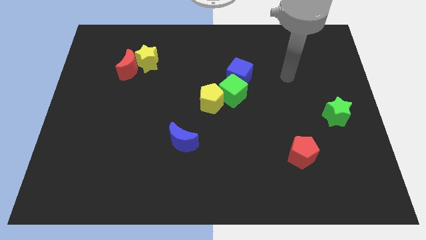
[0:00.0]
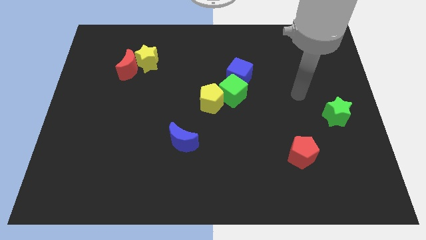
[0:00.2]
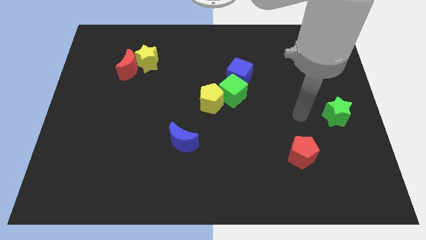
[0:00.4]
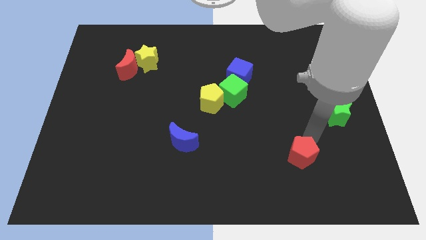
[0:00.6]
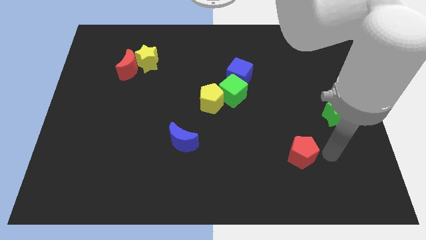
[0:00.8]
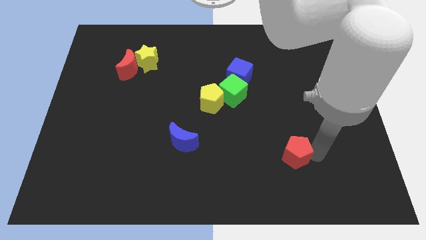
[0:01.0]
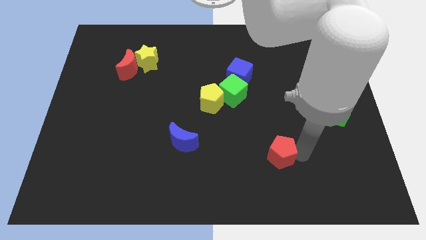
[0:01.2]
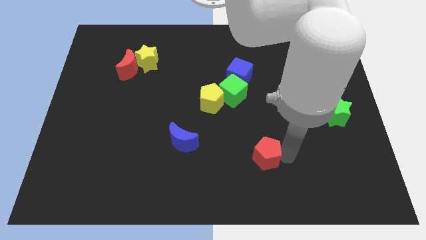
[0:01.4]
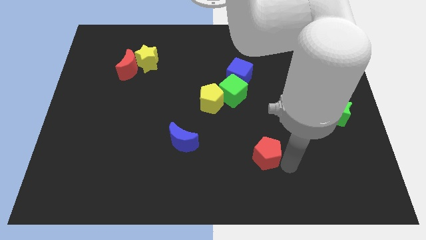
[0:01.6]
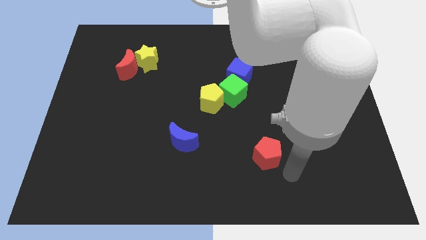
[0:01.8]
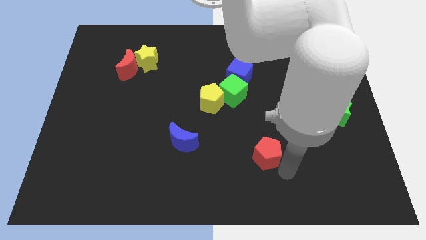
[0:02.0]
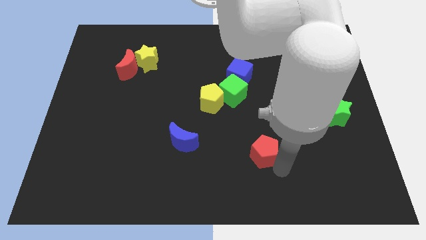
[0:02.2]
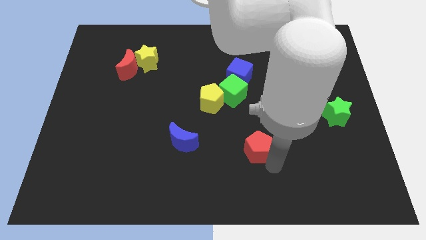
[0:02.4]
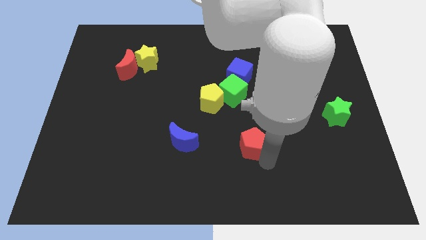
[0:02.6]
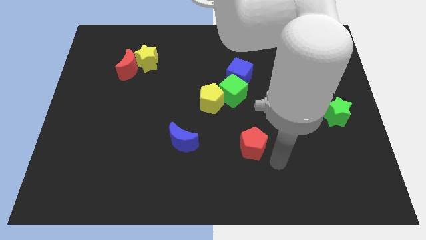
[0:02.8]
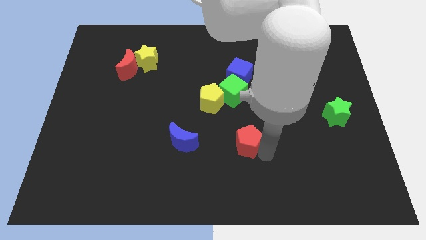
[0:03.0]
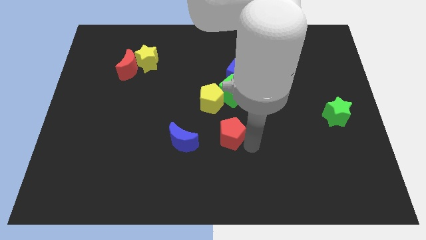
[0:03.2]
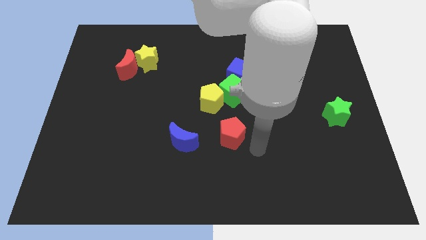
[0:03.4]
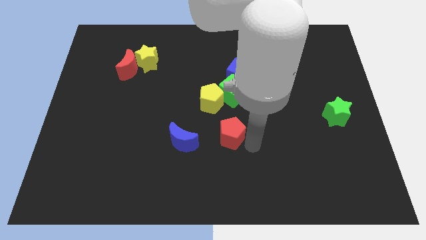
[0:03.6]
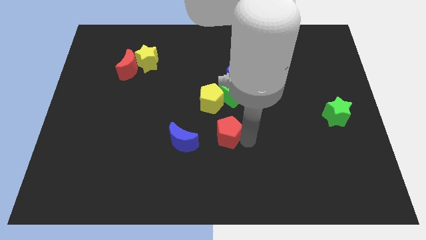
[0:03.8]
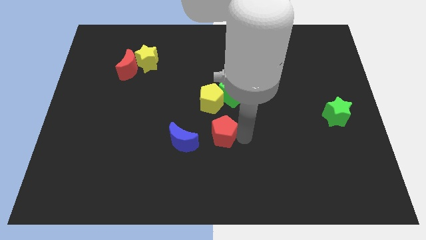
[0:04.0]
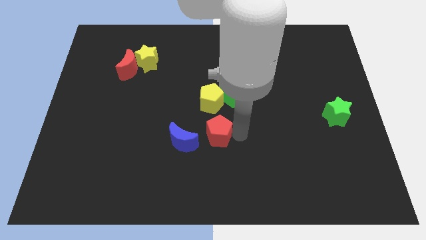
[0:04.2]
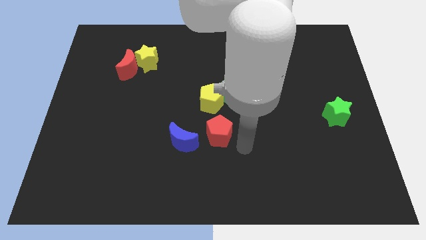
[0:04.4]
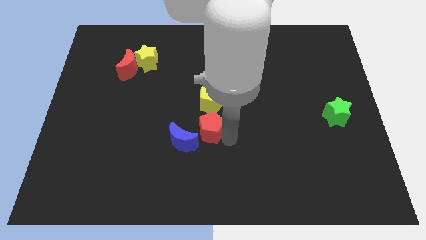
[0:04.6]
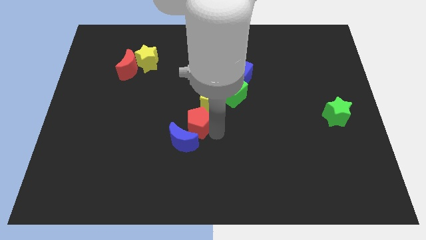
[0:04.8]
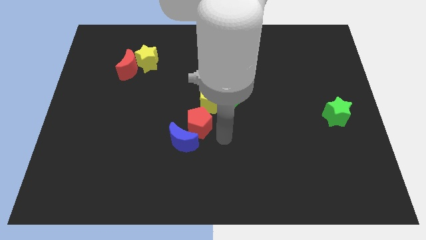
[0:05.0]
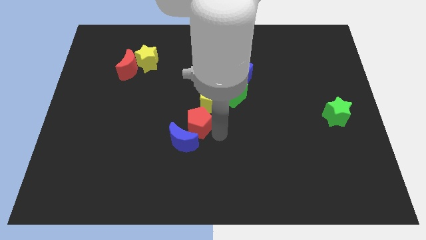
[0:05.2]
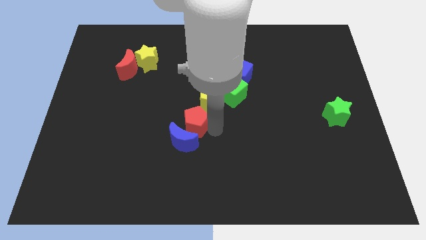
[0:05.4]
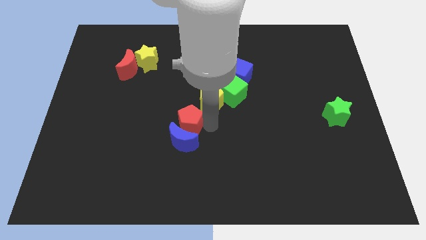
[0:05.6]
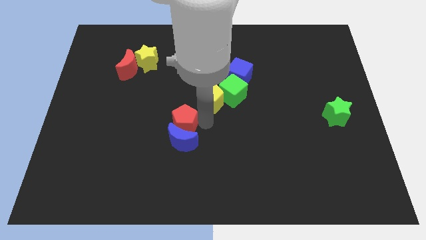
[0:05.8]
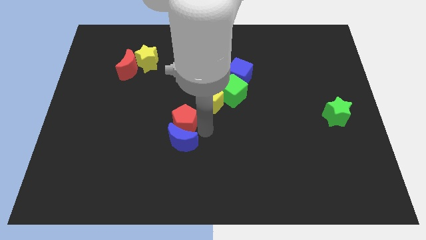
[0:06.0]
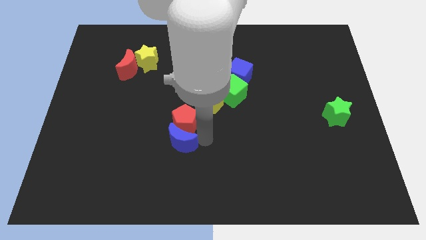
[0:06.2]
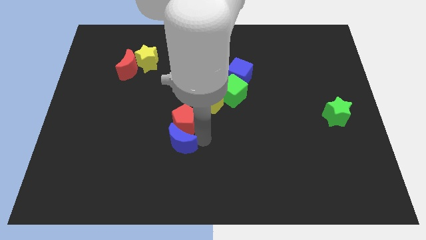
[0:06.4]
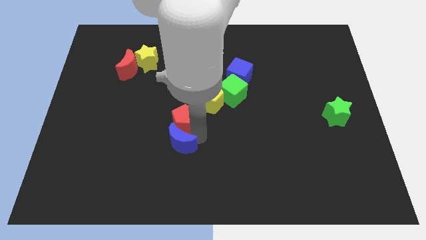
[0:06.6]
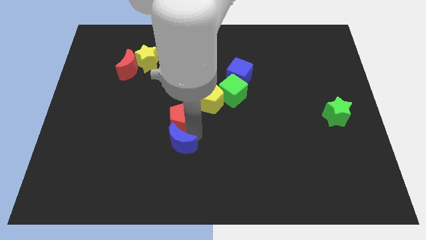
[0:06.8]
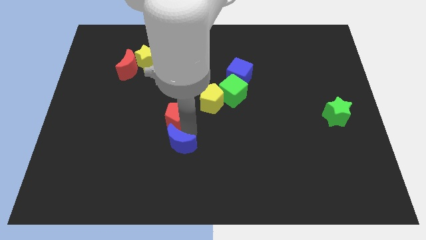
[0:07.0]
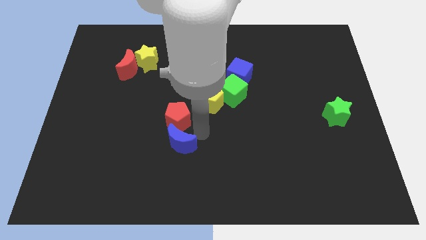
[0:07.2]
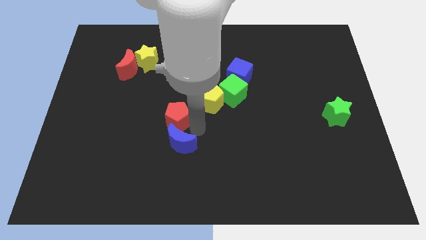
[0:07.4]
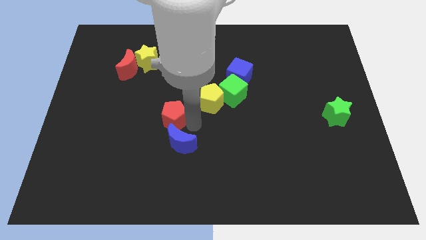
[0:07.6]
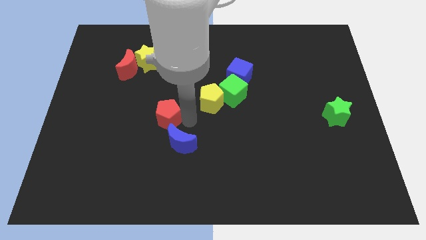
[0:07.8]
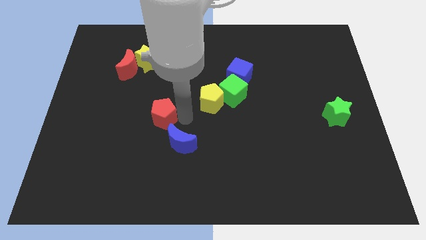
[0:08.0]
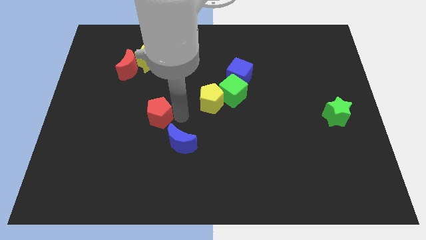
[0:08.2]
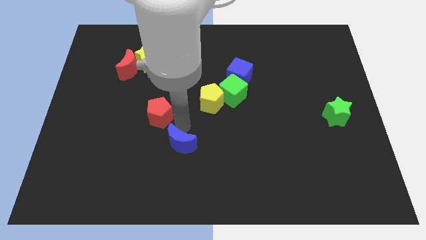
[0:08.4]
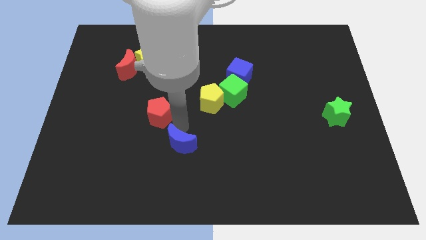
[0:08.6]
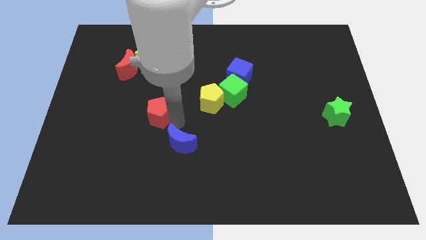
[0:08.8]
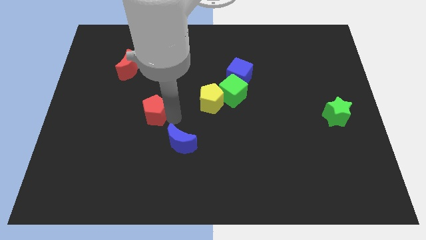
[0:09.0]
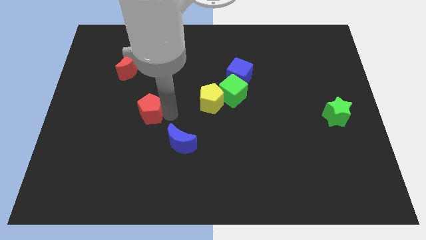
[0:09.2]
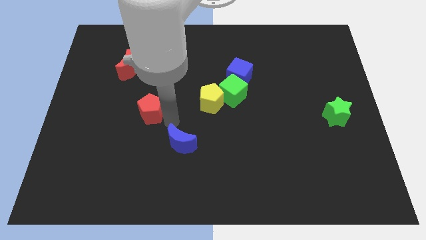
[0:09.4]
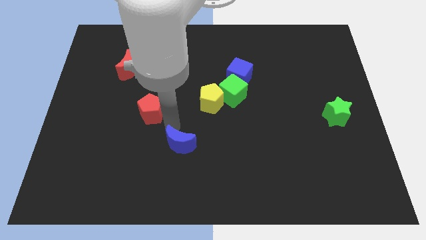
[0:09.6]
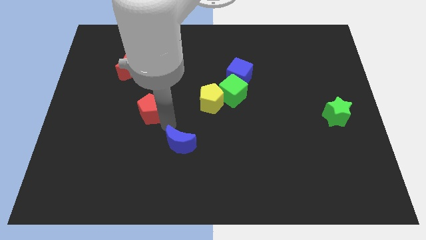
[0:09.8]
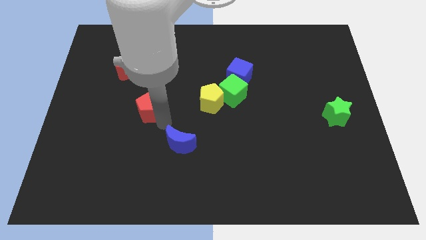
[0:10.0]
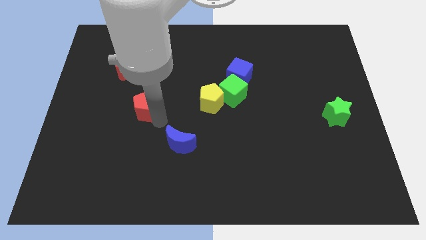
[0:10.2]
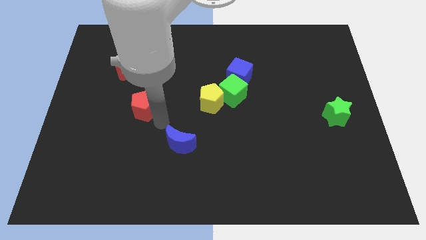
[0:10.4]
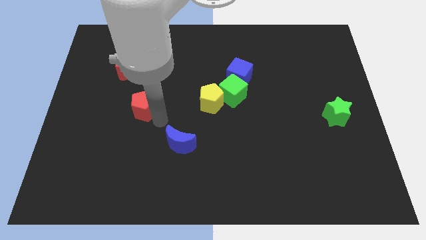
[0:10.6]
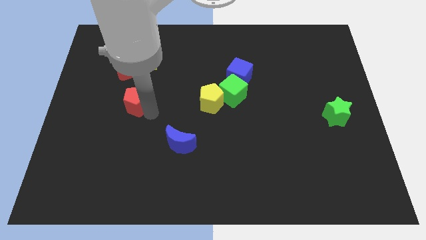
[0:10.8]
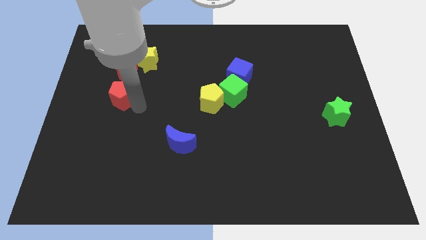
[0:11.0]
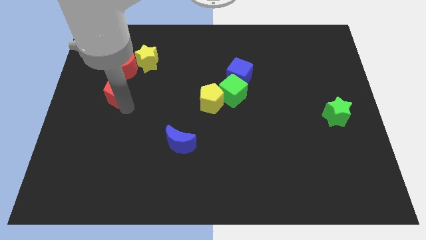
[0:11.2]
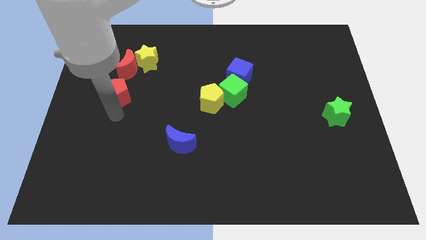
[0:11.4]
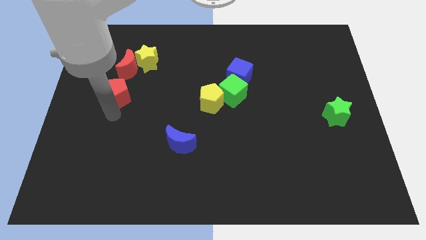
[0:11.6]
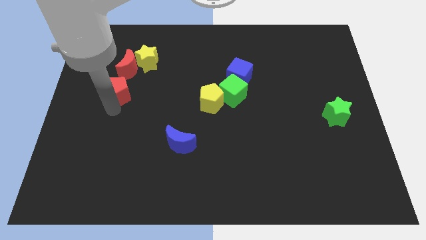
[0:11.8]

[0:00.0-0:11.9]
push the red pentagon to the bottom left side of the yellow star

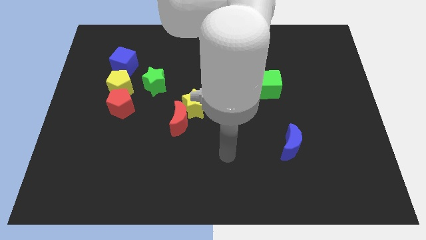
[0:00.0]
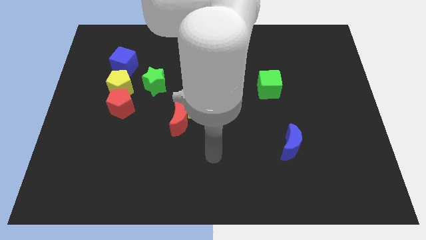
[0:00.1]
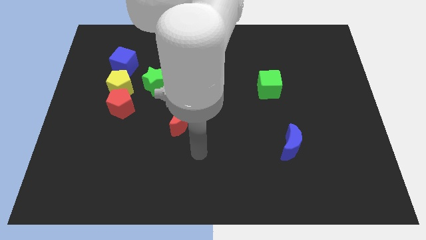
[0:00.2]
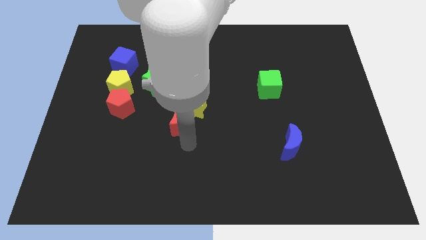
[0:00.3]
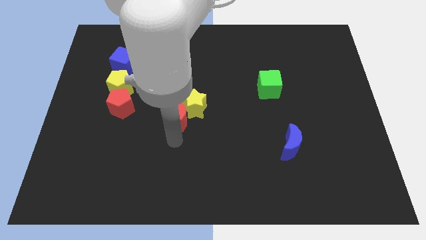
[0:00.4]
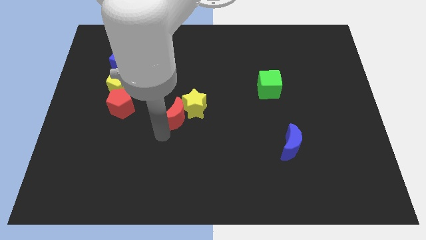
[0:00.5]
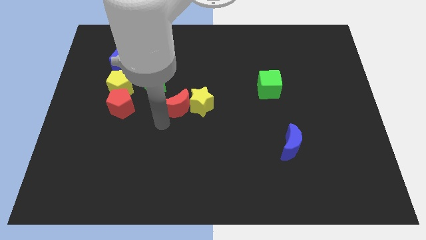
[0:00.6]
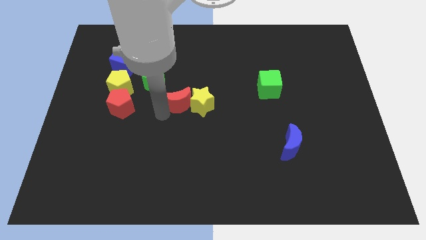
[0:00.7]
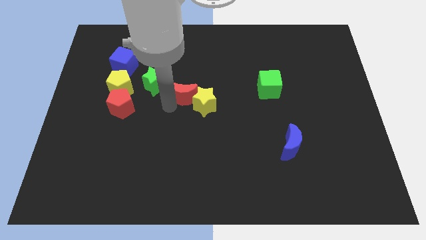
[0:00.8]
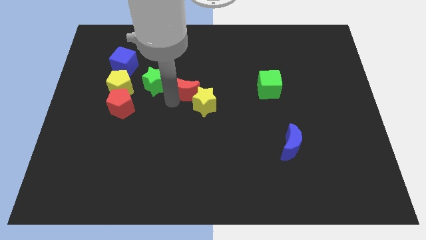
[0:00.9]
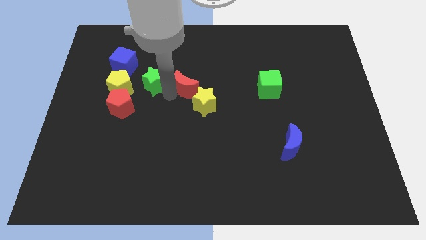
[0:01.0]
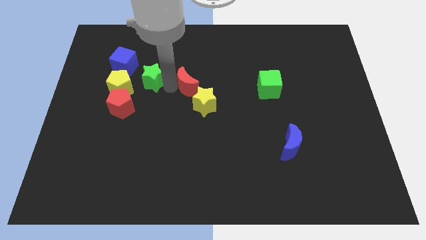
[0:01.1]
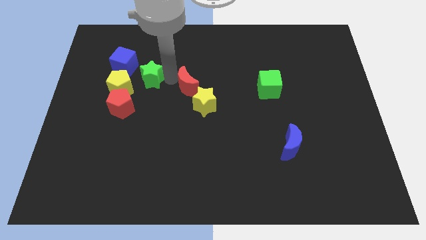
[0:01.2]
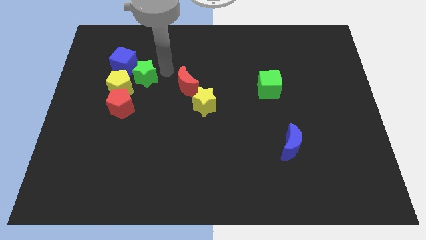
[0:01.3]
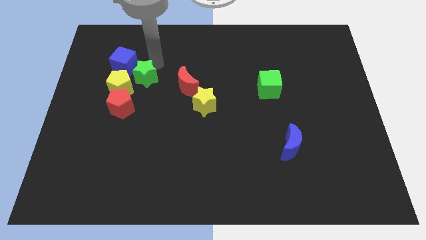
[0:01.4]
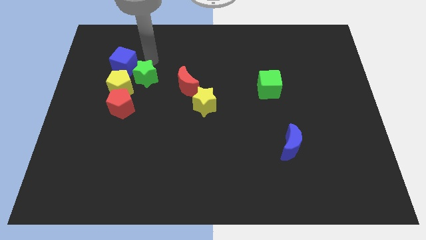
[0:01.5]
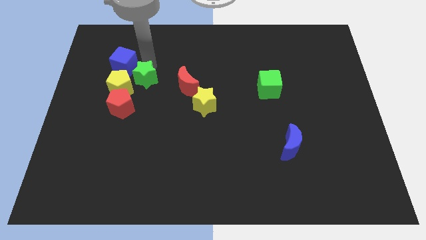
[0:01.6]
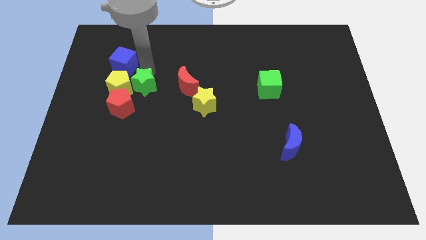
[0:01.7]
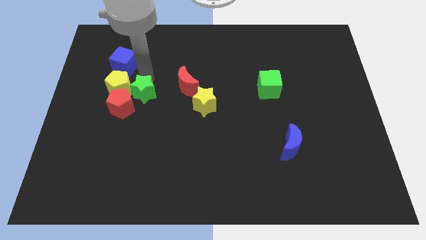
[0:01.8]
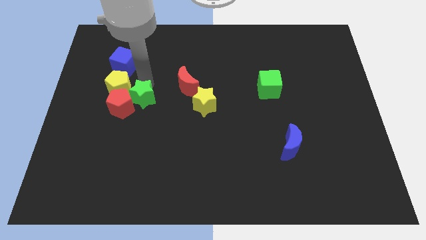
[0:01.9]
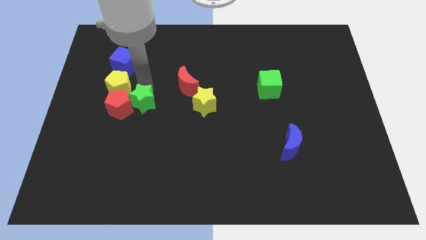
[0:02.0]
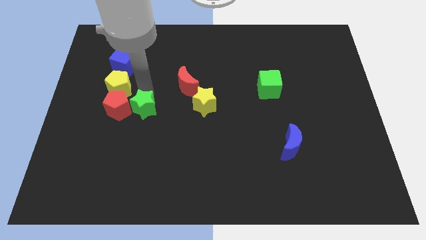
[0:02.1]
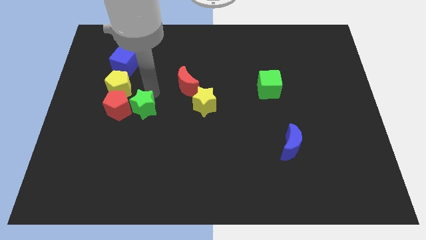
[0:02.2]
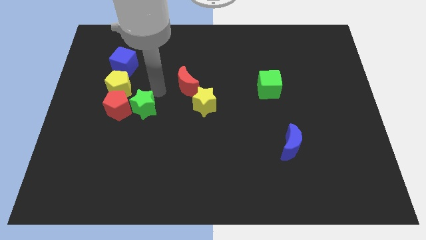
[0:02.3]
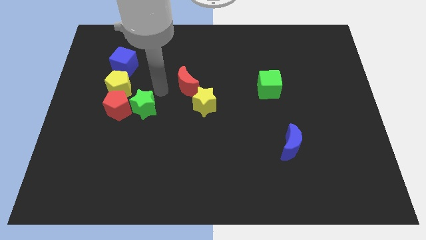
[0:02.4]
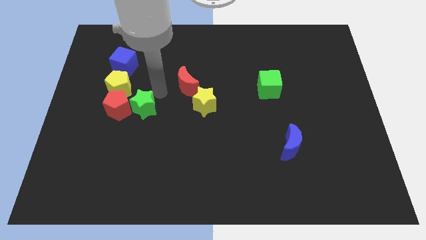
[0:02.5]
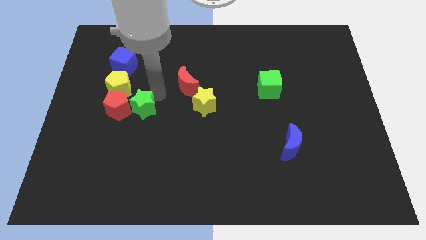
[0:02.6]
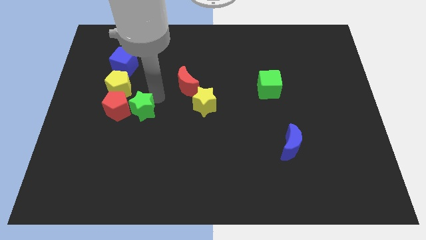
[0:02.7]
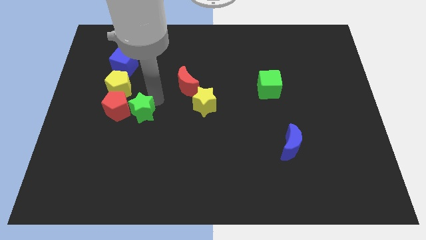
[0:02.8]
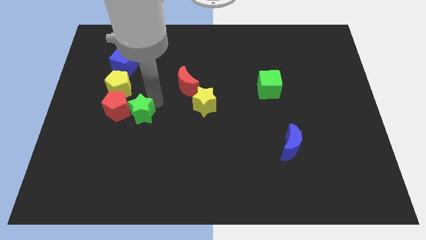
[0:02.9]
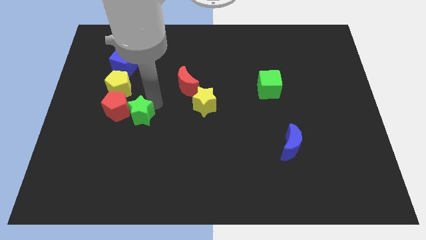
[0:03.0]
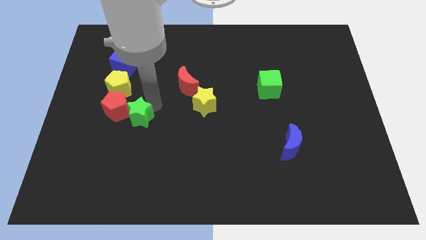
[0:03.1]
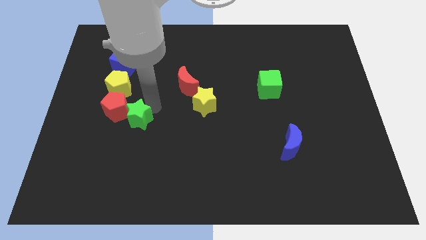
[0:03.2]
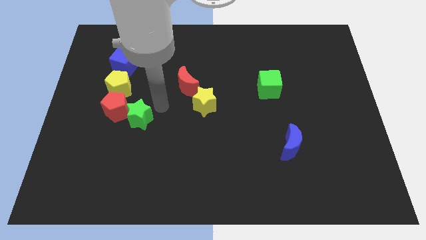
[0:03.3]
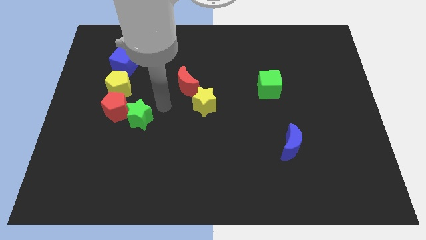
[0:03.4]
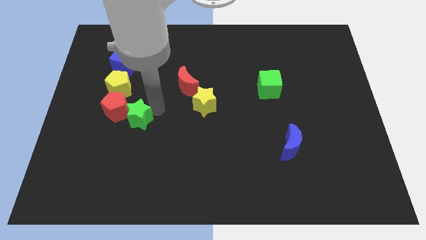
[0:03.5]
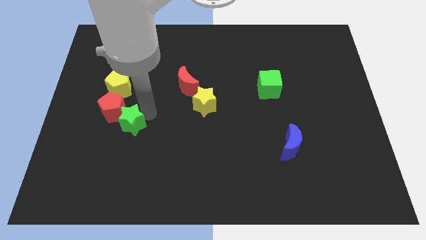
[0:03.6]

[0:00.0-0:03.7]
push the green star to the bottom side of the yellow pentagon
